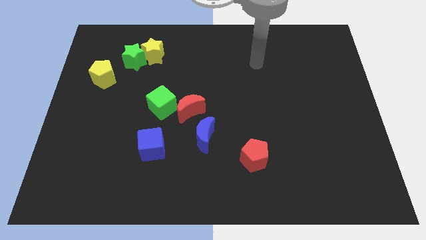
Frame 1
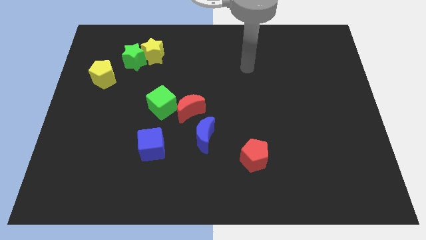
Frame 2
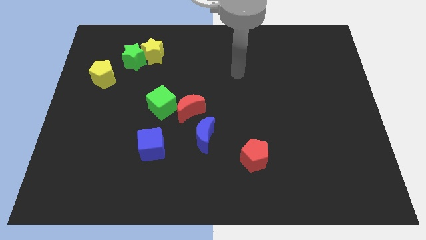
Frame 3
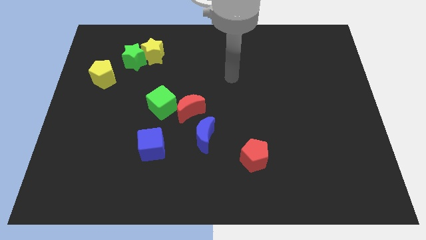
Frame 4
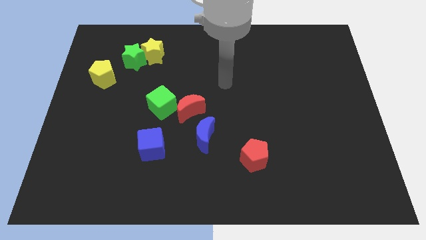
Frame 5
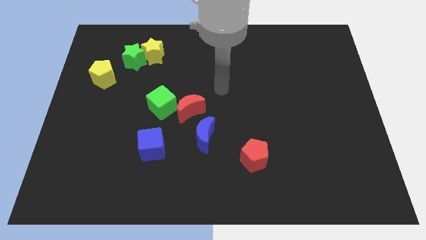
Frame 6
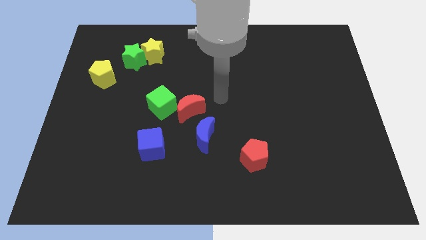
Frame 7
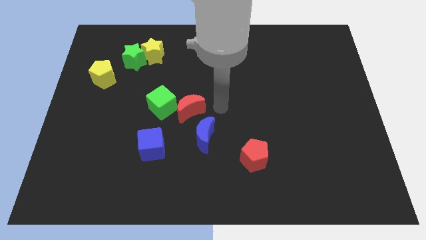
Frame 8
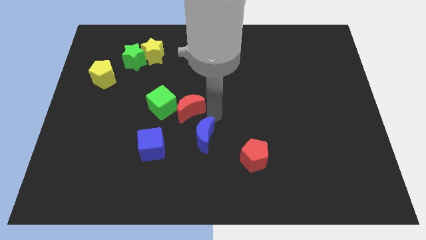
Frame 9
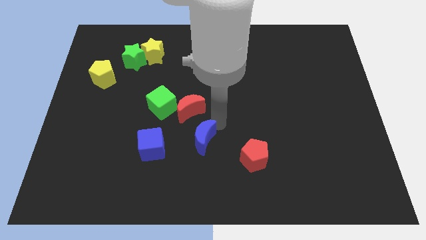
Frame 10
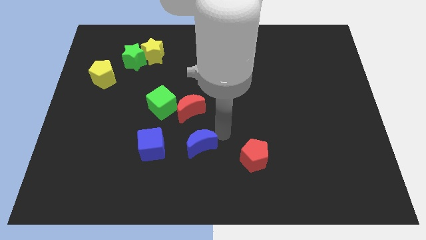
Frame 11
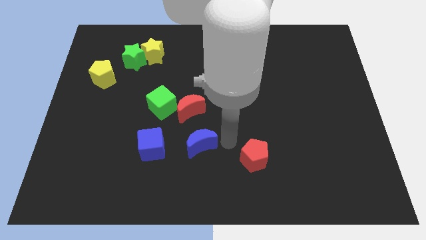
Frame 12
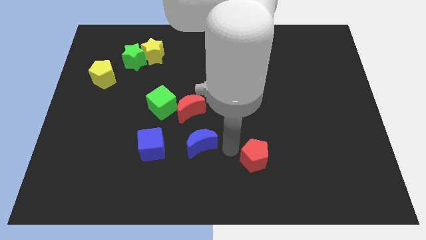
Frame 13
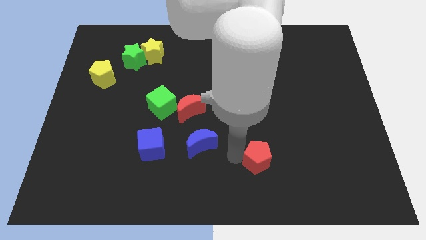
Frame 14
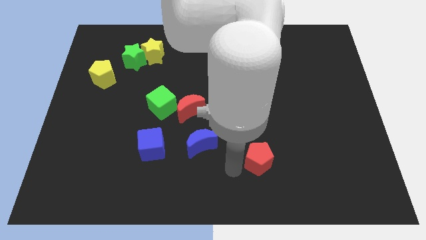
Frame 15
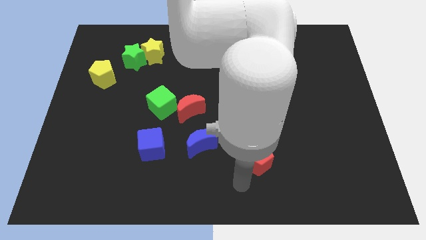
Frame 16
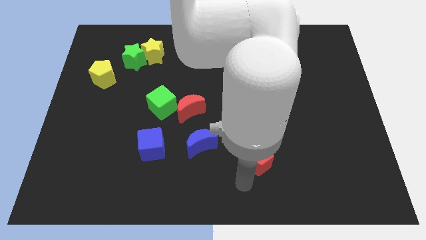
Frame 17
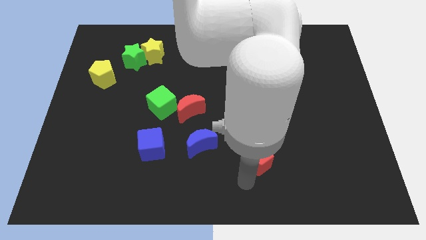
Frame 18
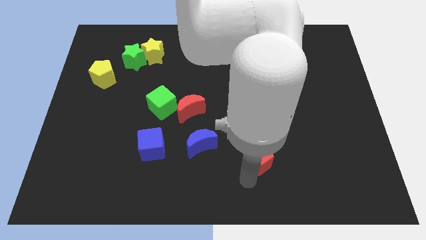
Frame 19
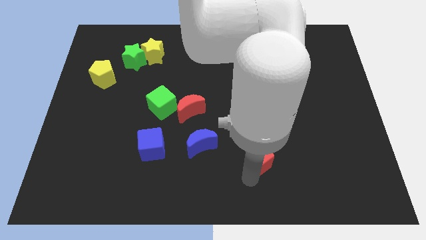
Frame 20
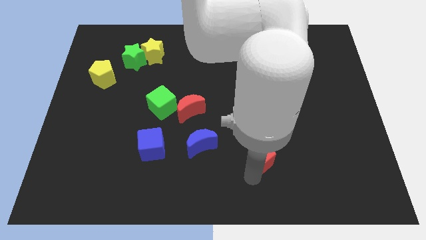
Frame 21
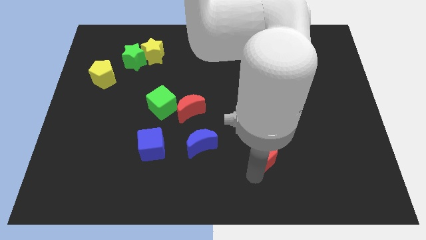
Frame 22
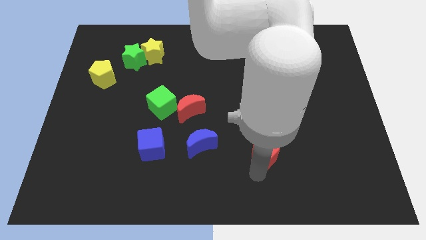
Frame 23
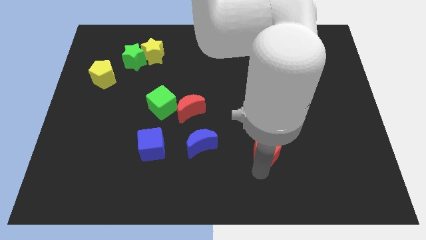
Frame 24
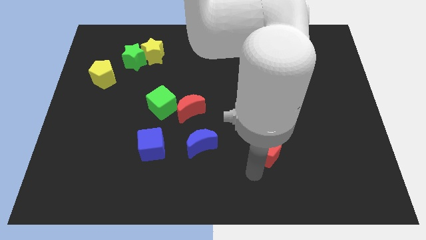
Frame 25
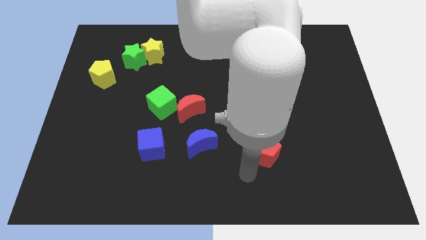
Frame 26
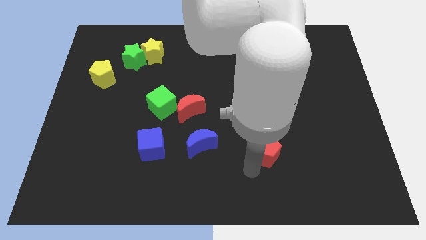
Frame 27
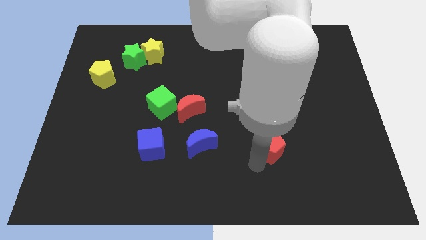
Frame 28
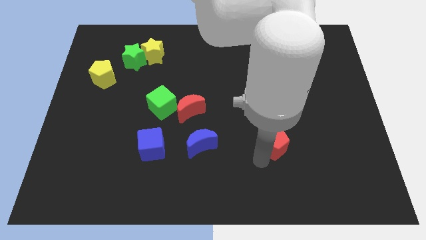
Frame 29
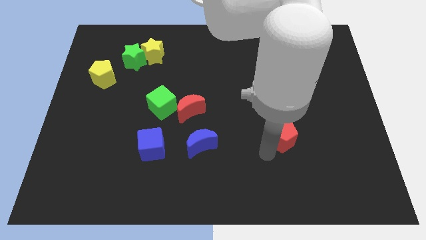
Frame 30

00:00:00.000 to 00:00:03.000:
push the red pentagon up and right diagonally a little bit

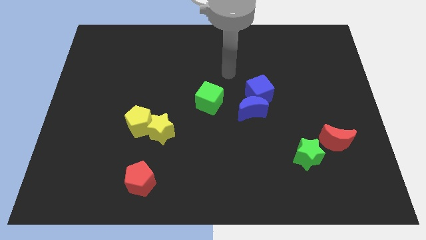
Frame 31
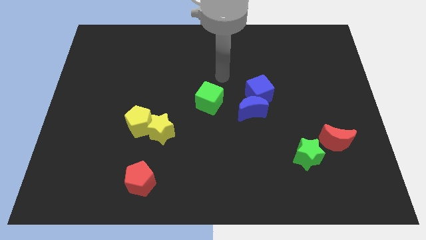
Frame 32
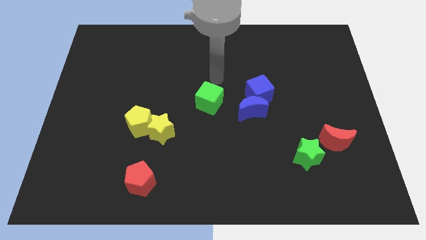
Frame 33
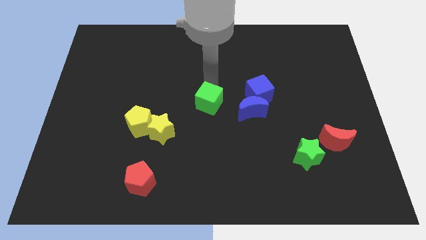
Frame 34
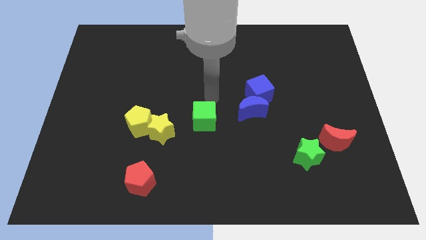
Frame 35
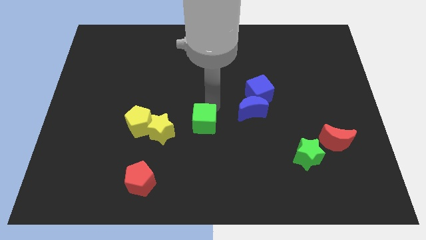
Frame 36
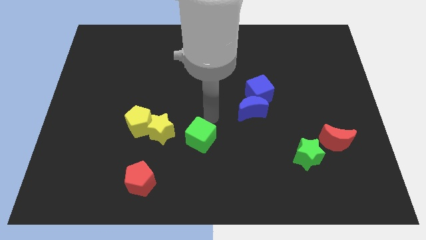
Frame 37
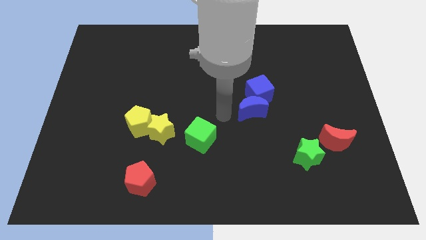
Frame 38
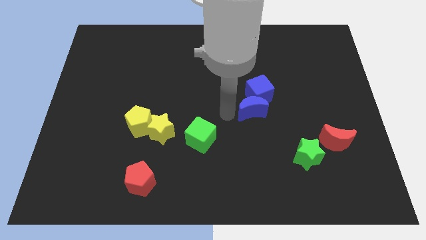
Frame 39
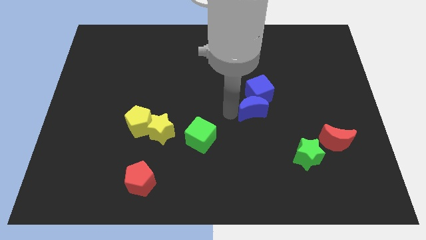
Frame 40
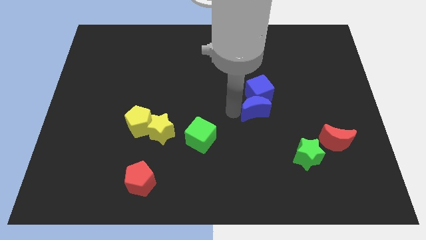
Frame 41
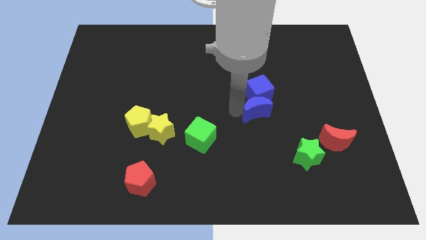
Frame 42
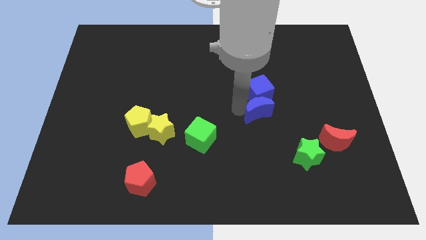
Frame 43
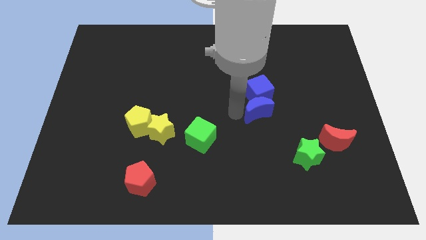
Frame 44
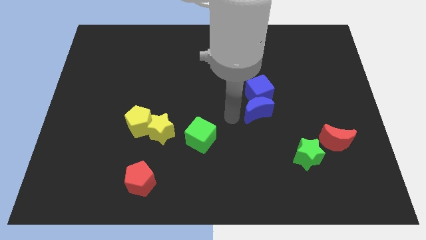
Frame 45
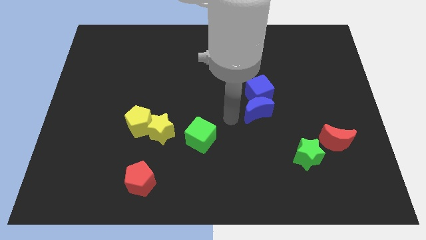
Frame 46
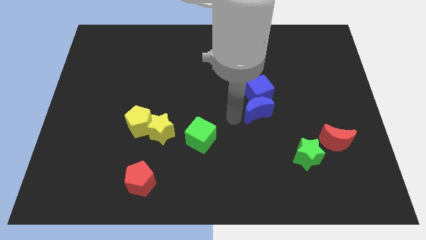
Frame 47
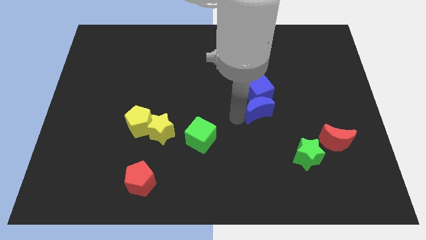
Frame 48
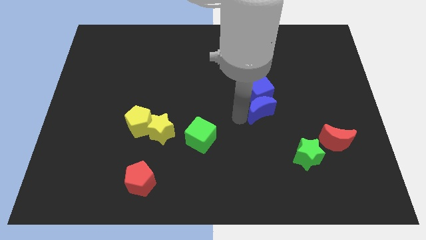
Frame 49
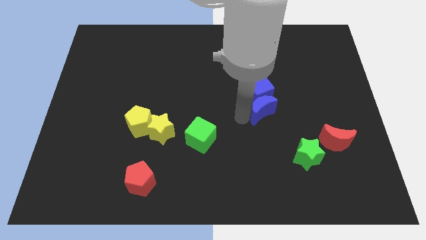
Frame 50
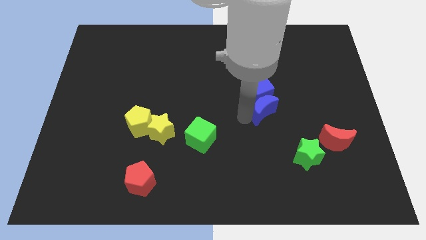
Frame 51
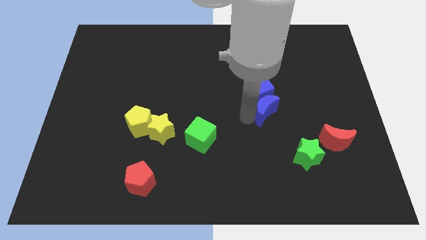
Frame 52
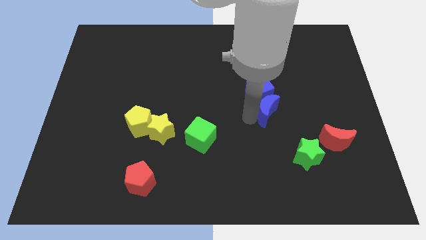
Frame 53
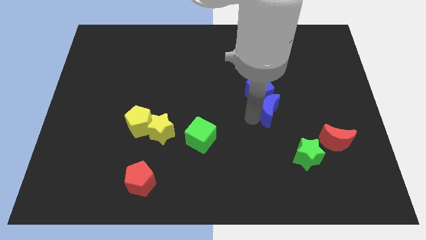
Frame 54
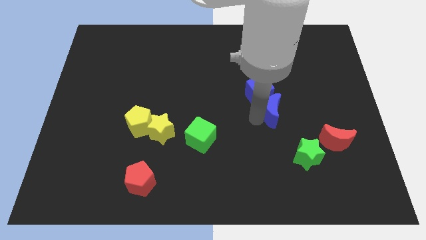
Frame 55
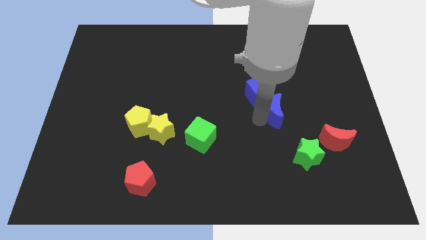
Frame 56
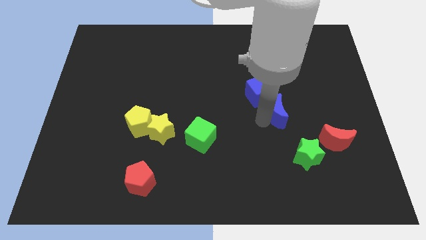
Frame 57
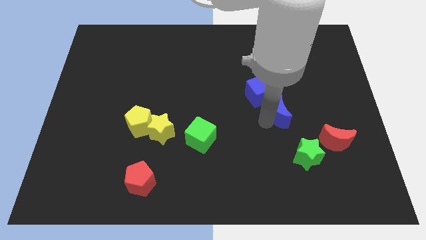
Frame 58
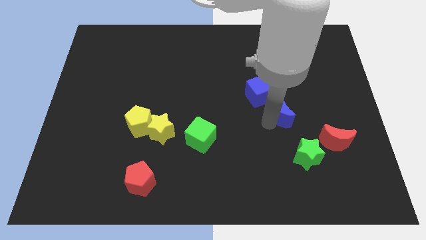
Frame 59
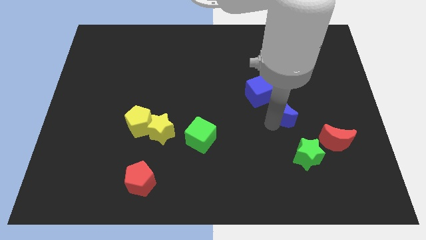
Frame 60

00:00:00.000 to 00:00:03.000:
slide the blue moon slightly to the right

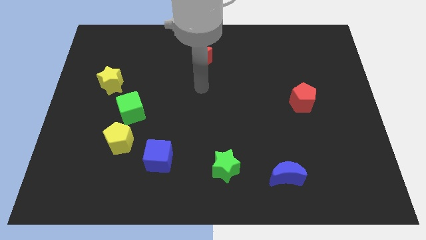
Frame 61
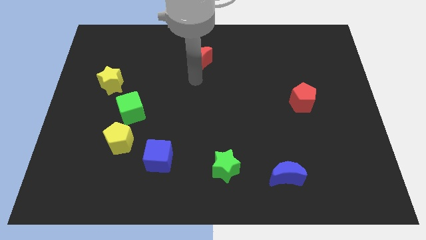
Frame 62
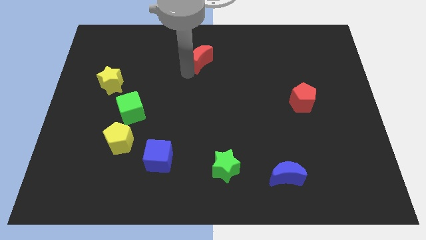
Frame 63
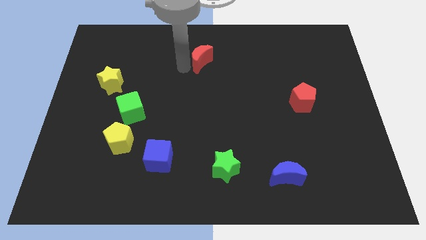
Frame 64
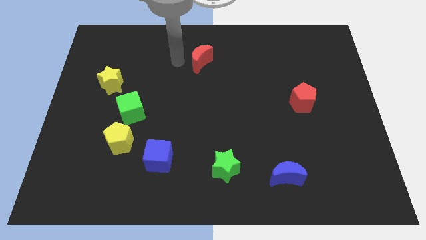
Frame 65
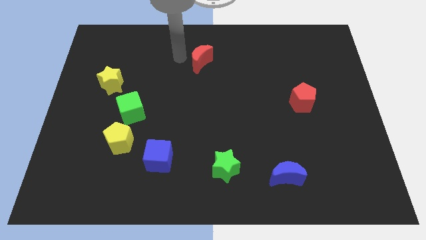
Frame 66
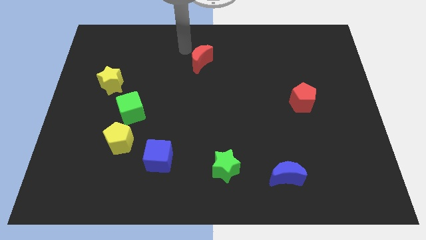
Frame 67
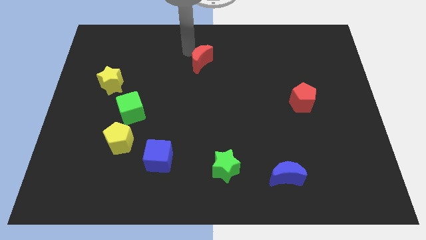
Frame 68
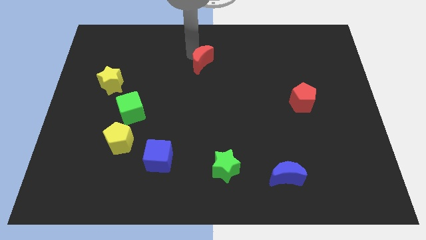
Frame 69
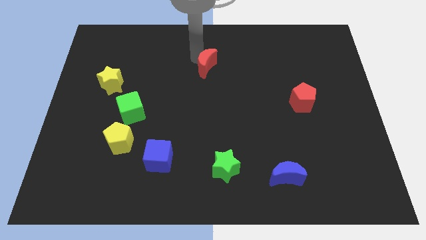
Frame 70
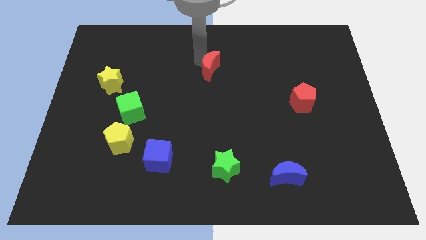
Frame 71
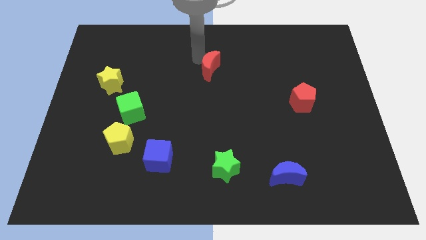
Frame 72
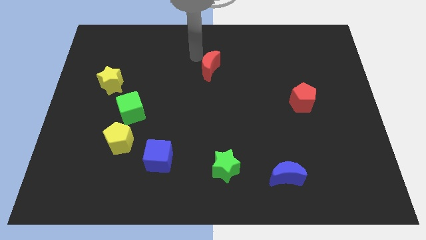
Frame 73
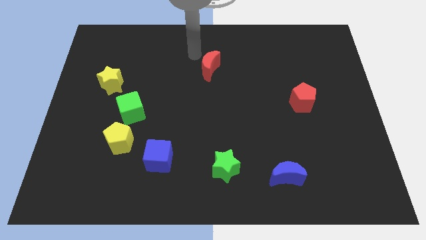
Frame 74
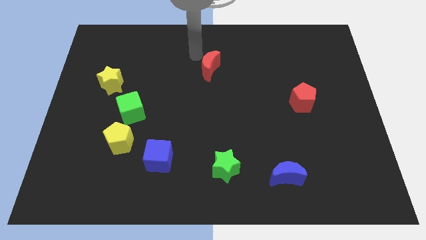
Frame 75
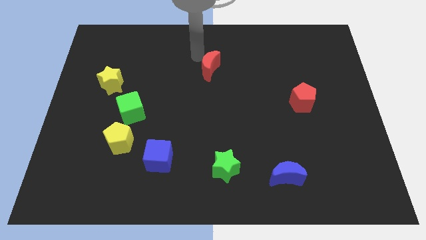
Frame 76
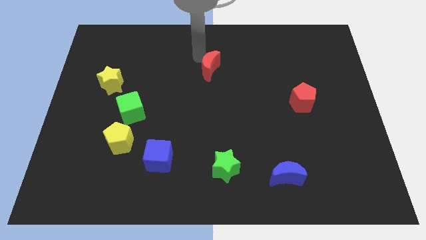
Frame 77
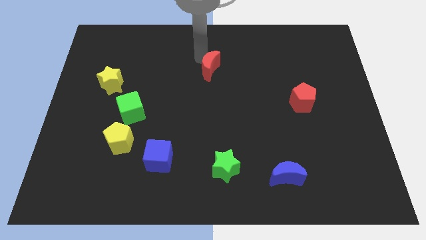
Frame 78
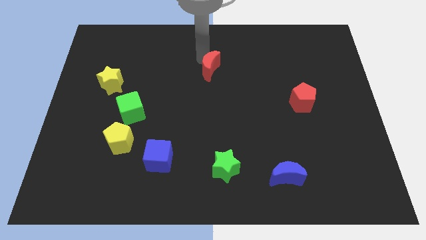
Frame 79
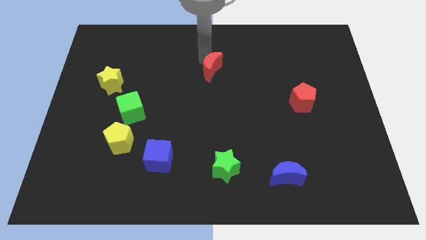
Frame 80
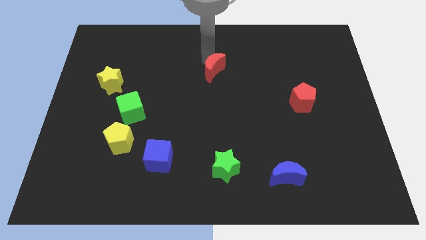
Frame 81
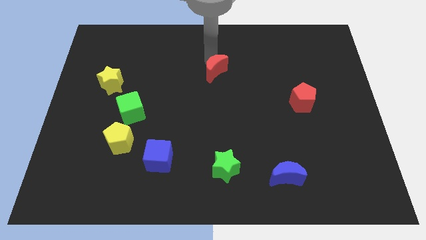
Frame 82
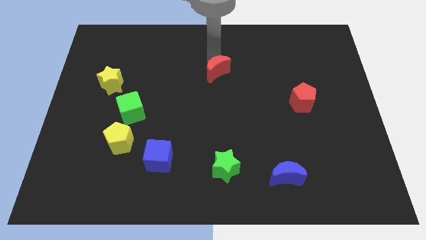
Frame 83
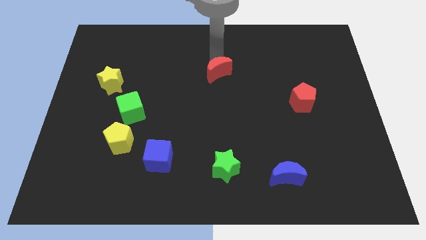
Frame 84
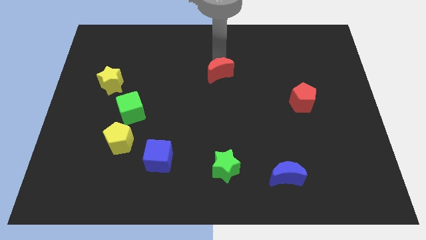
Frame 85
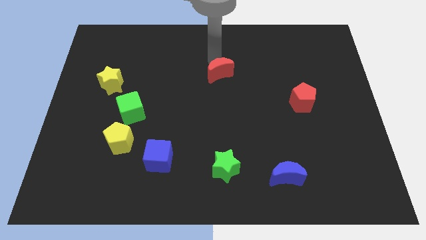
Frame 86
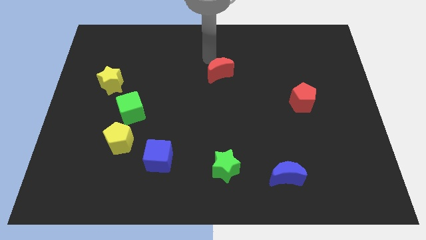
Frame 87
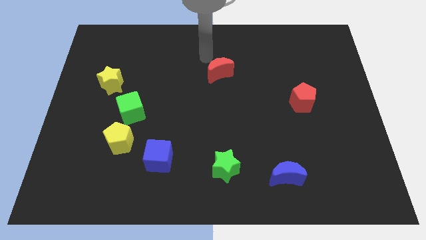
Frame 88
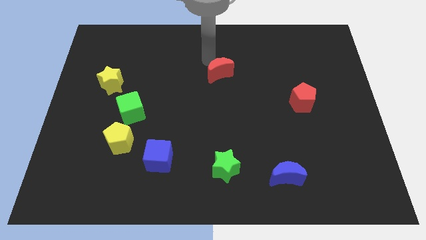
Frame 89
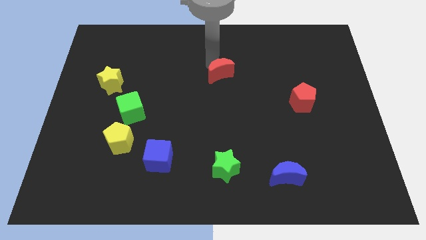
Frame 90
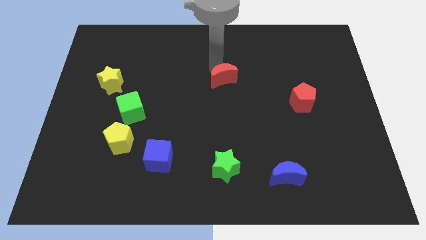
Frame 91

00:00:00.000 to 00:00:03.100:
slightly push the red moon down and then right
